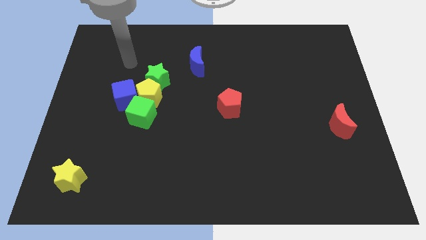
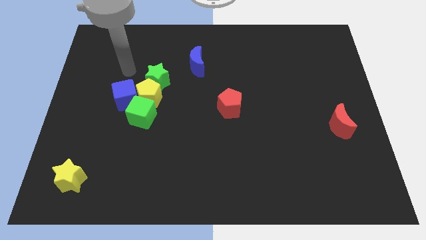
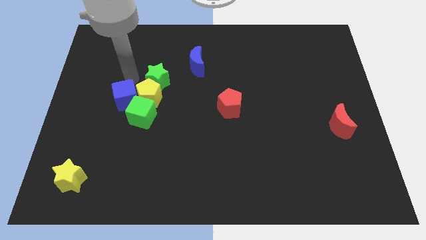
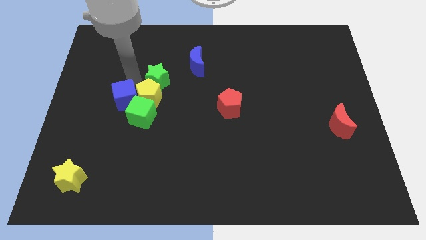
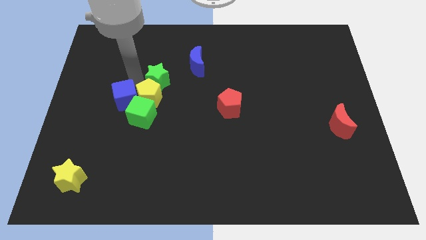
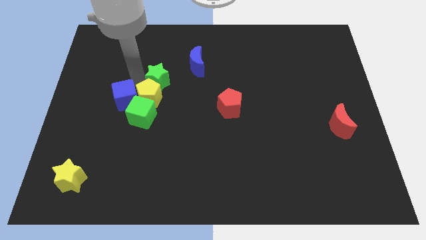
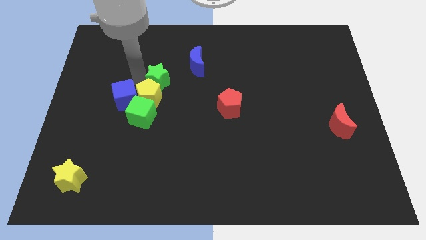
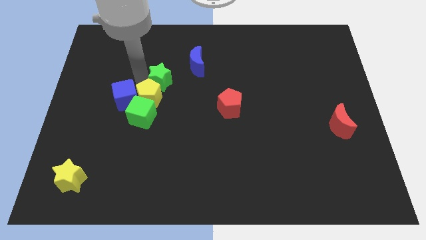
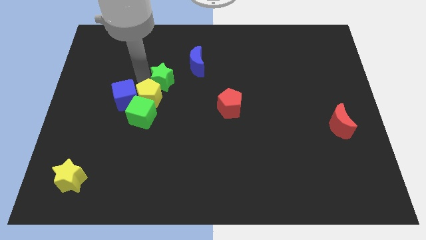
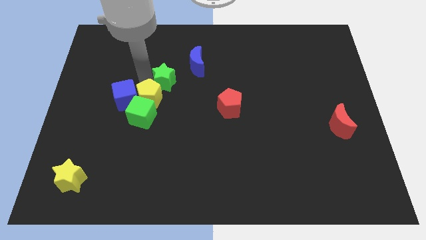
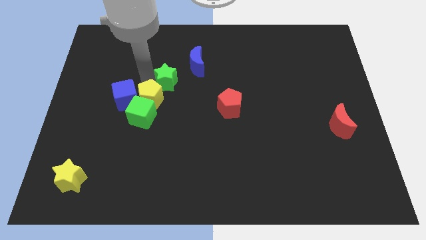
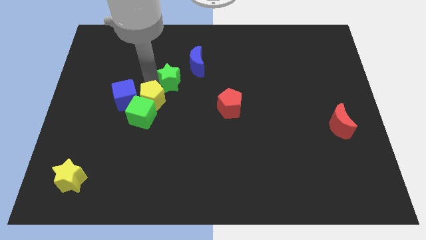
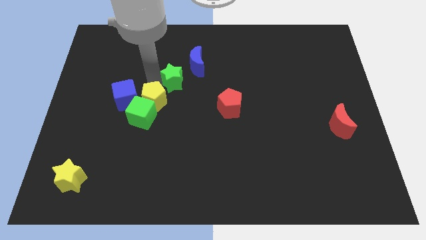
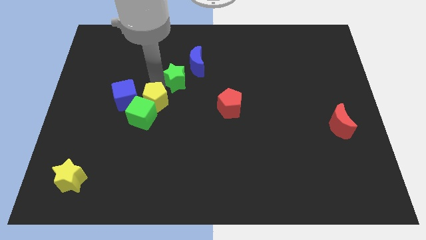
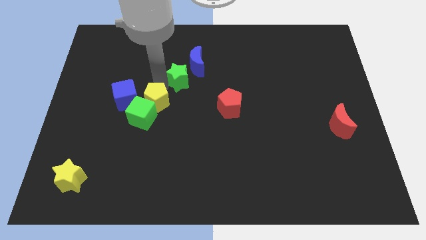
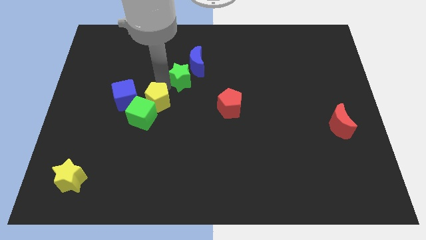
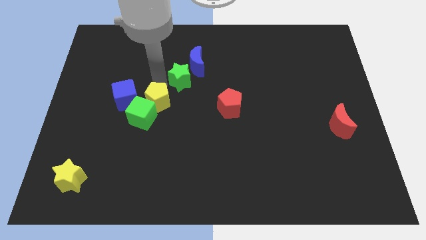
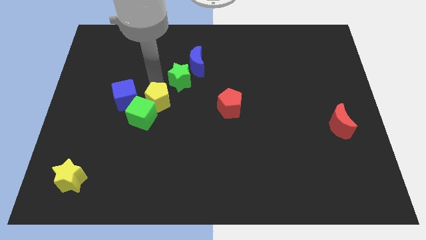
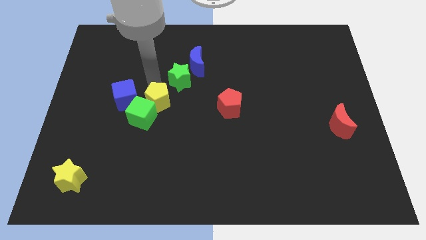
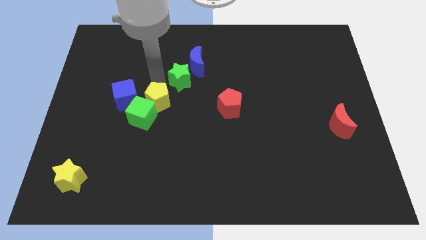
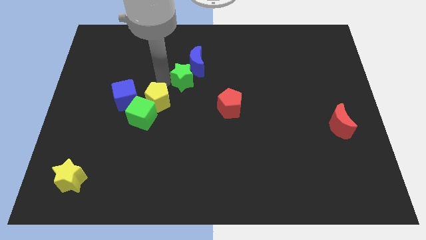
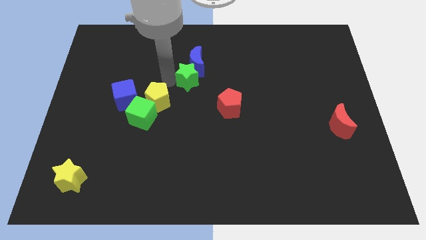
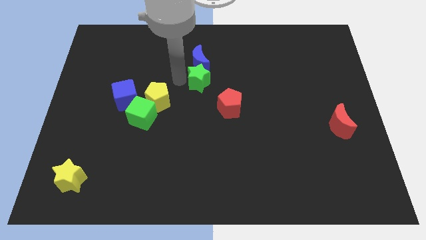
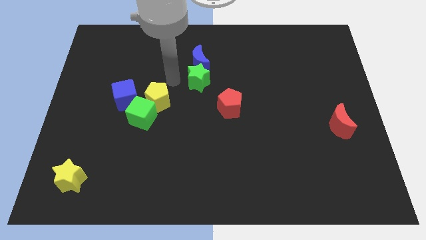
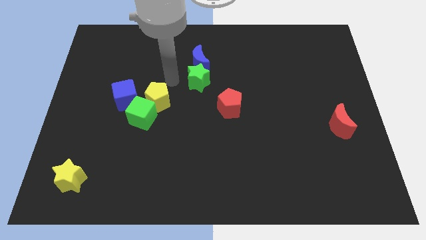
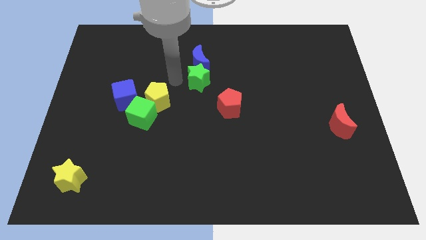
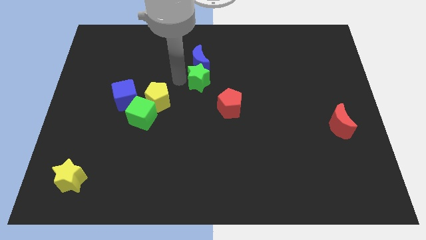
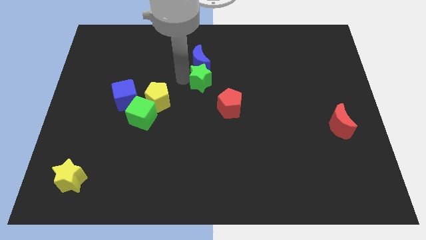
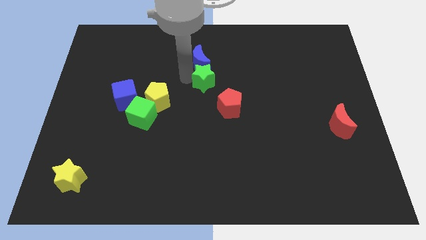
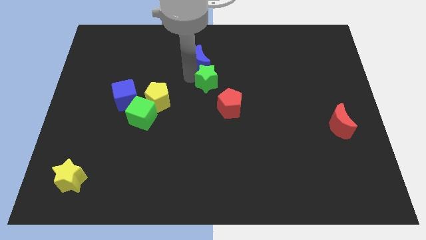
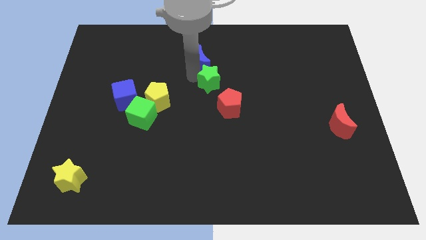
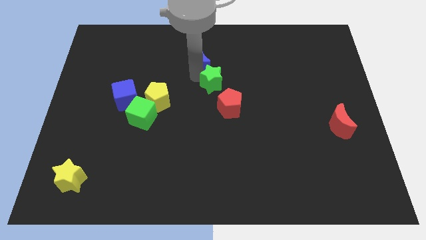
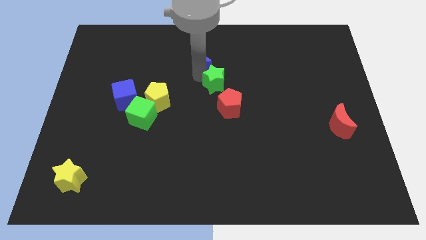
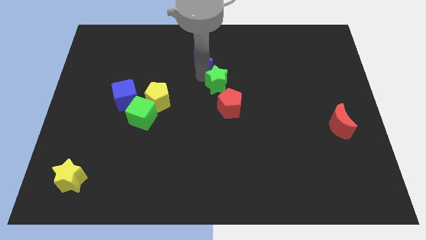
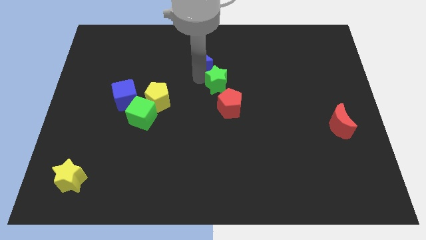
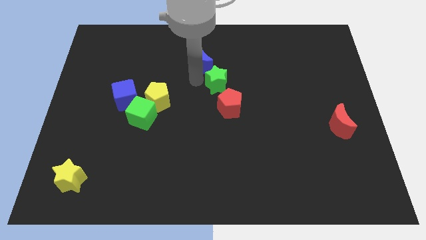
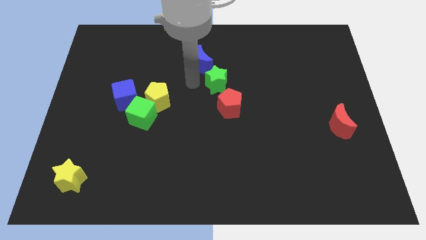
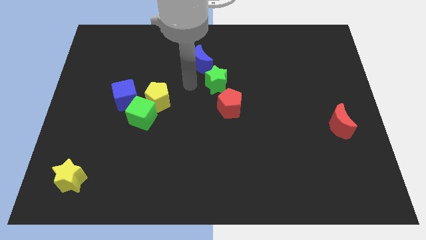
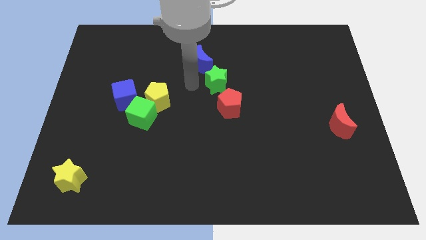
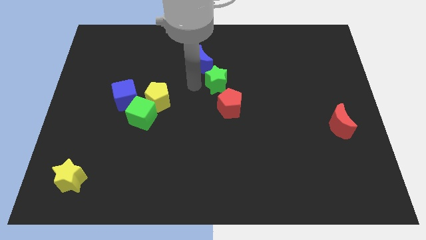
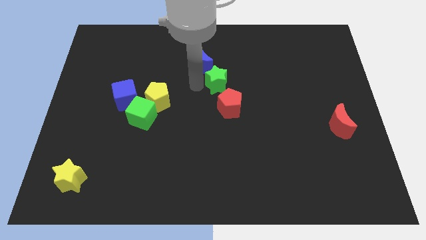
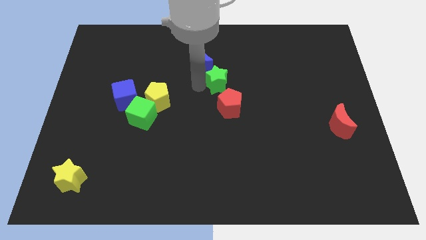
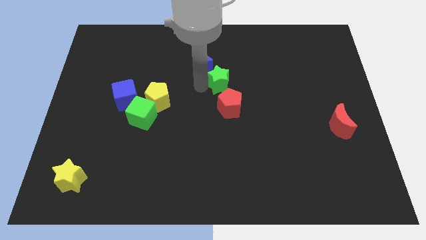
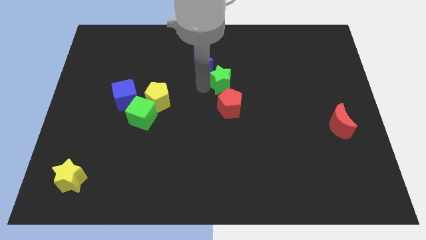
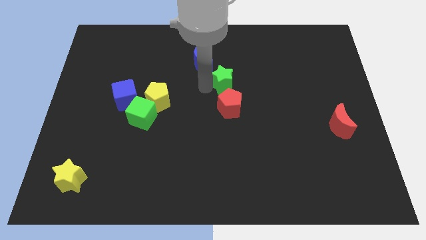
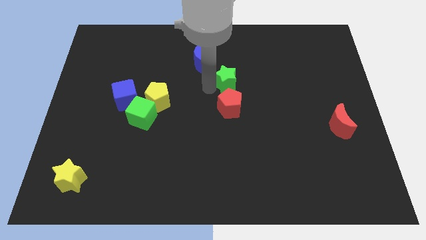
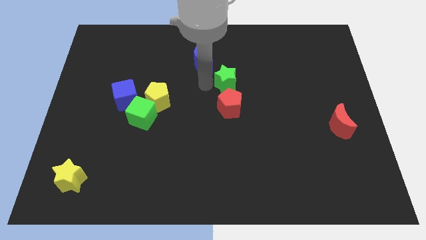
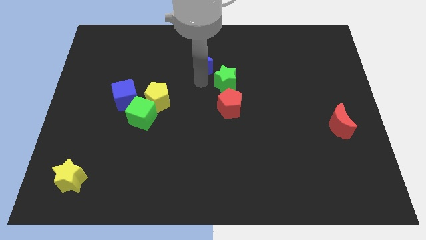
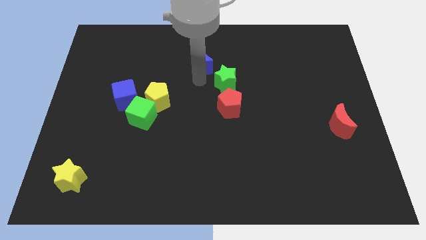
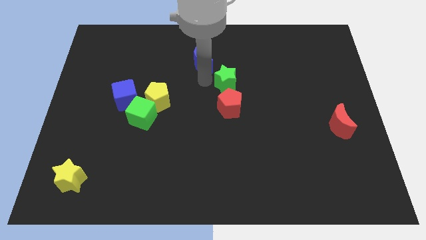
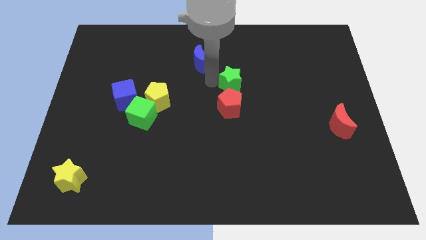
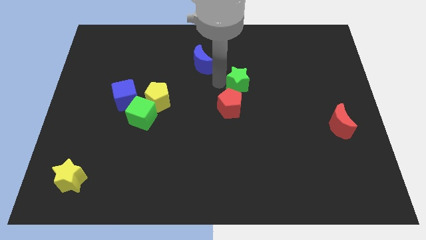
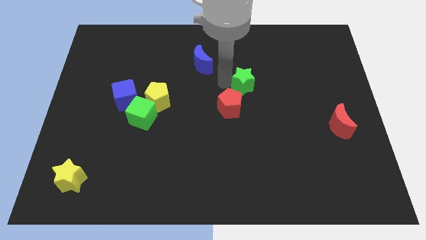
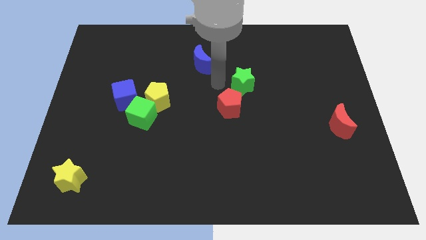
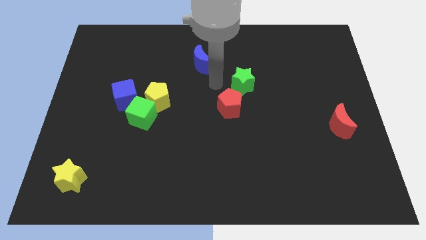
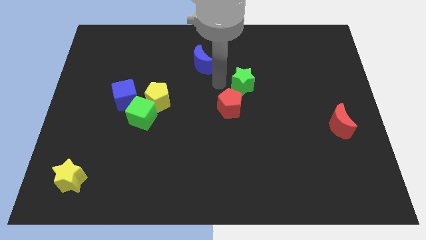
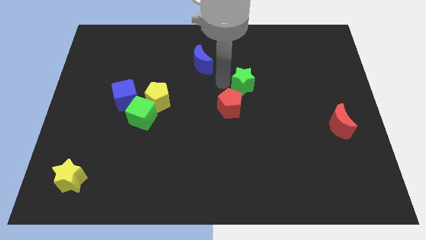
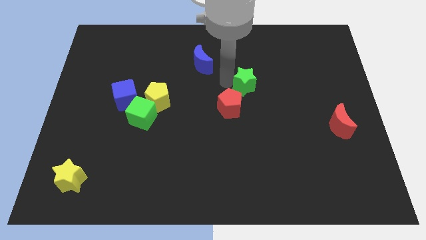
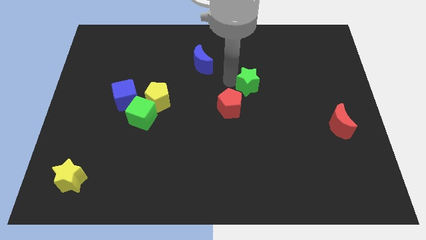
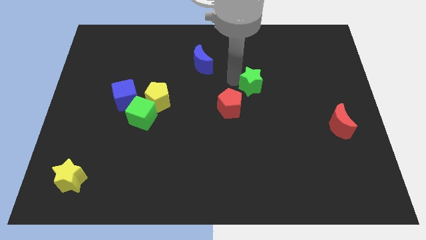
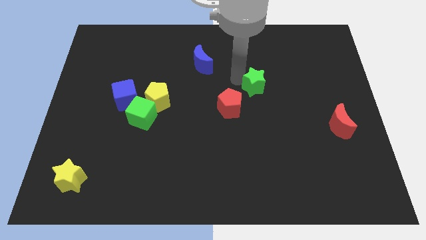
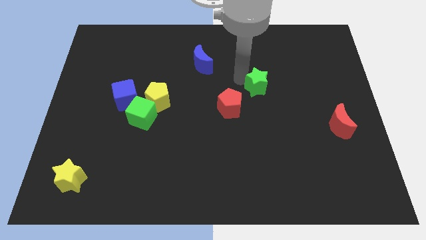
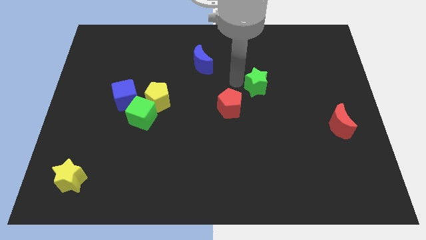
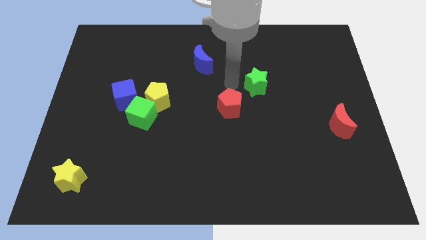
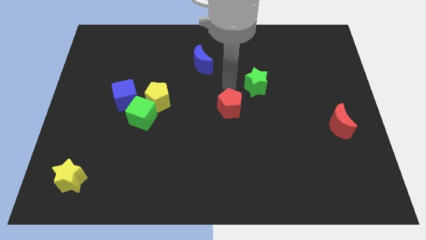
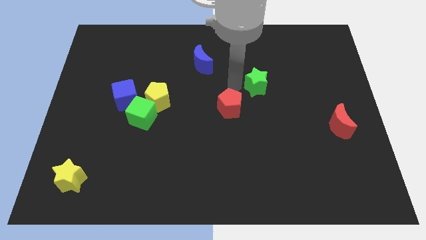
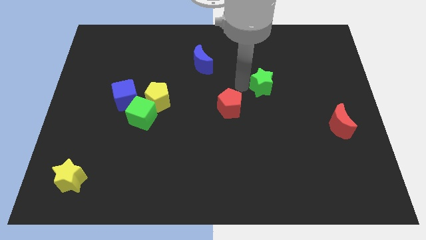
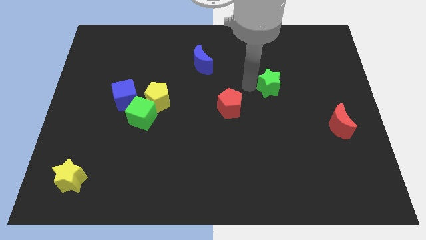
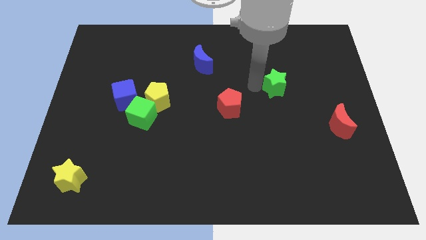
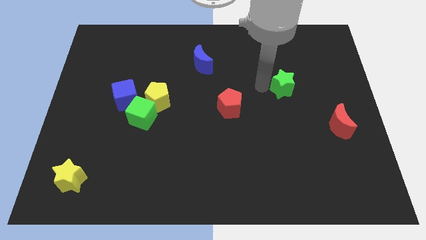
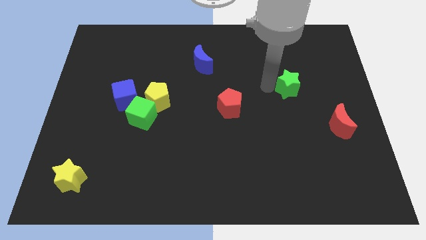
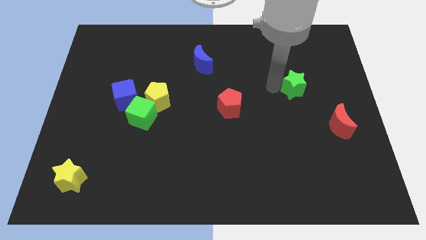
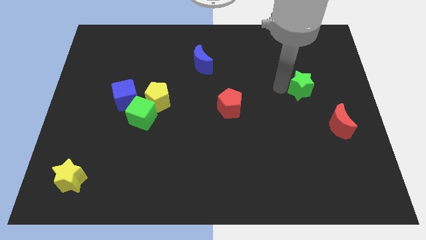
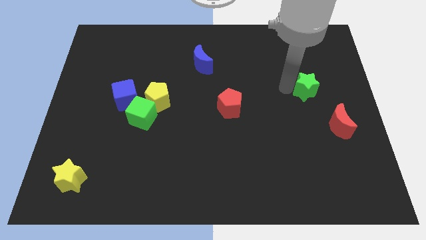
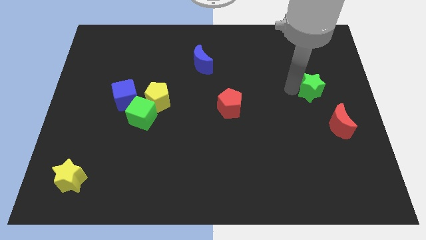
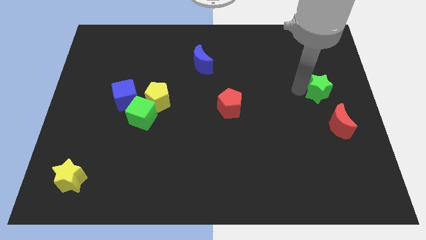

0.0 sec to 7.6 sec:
push the green star to the center right
